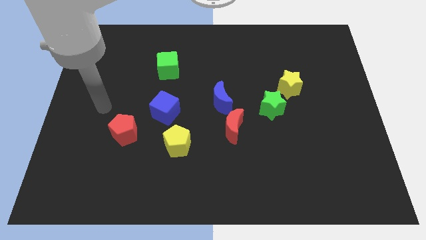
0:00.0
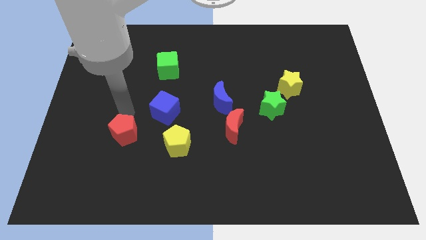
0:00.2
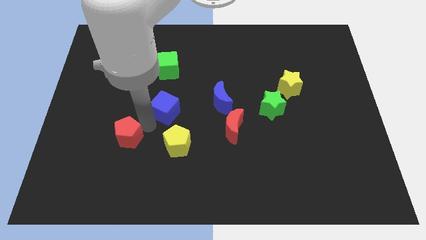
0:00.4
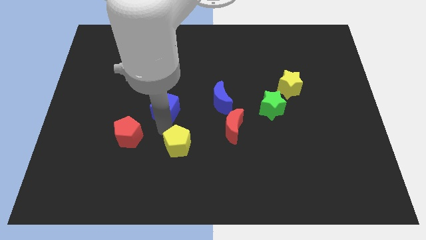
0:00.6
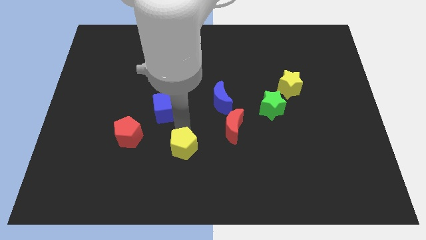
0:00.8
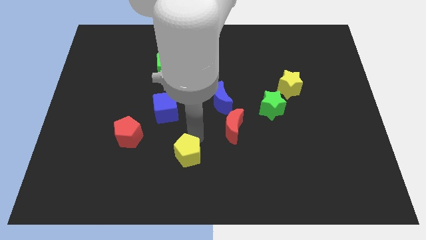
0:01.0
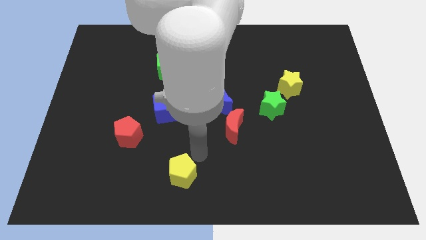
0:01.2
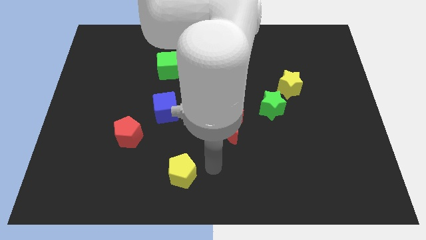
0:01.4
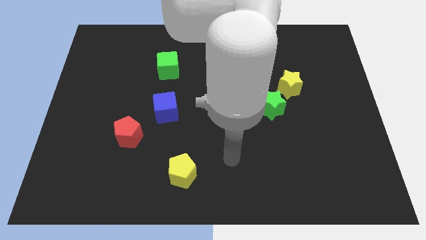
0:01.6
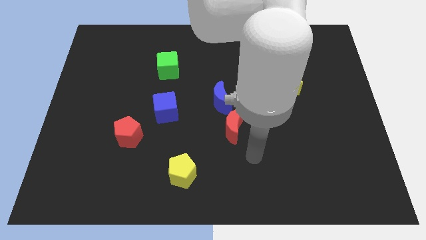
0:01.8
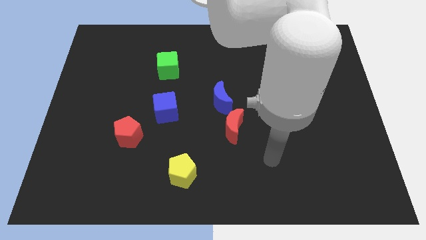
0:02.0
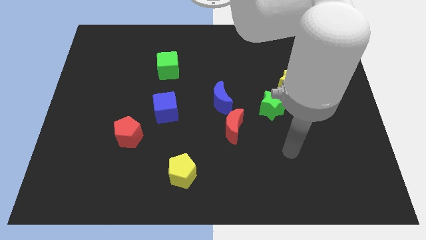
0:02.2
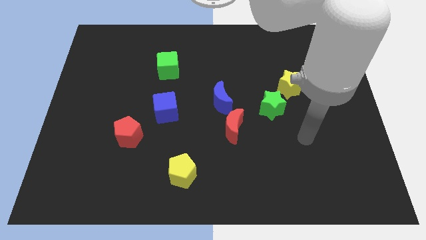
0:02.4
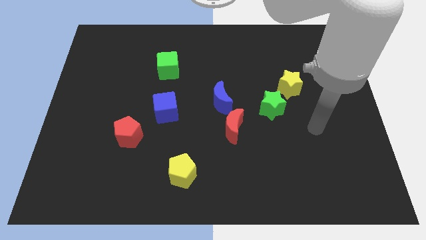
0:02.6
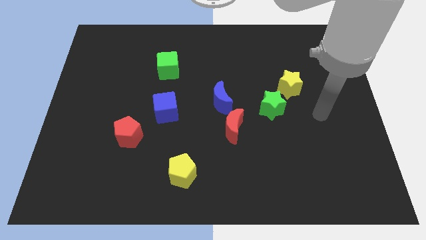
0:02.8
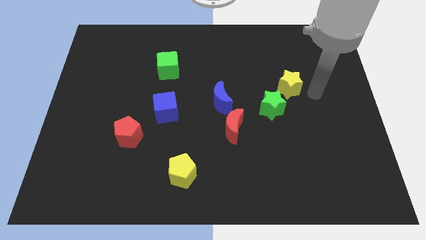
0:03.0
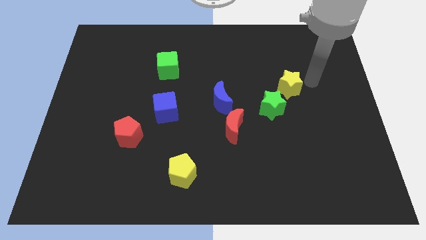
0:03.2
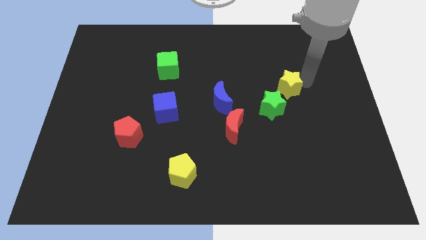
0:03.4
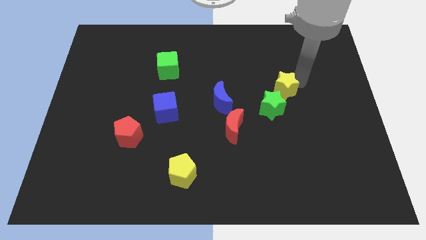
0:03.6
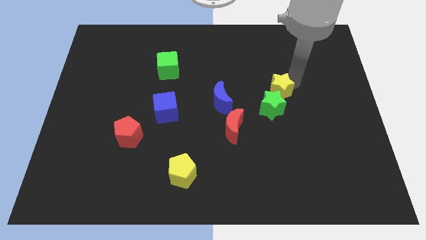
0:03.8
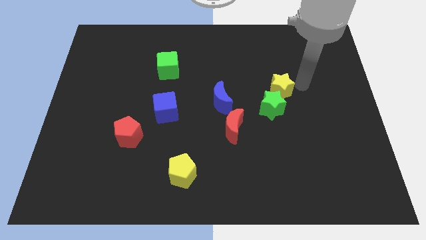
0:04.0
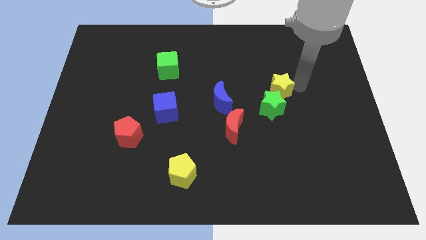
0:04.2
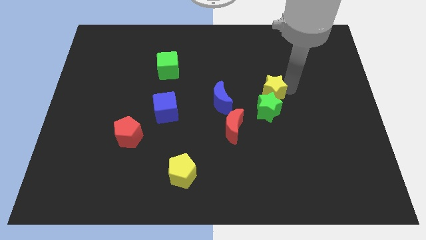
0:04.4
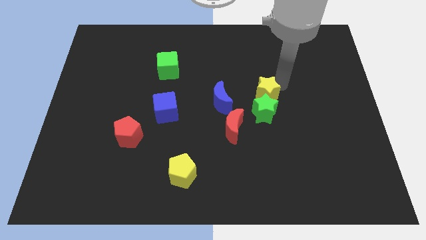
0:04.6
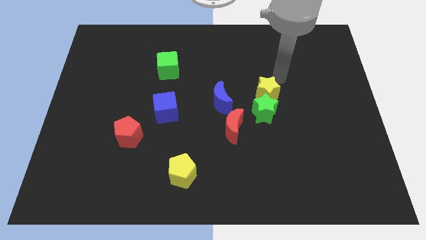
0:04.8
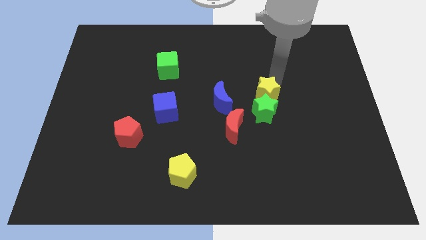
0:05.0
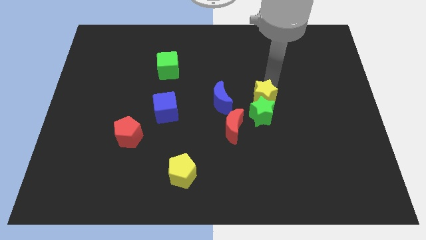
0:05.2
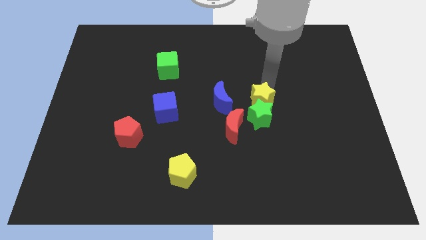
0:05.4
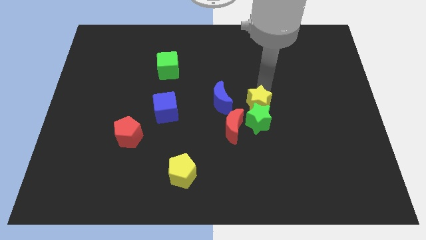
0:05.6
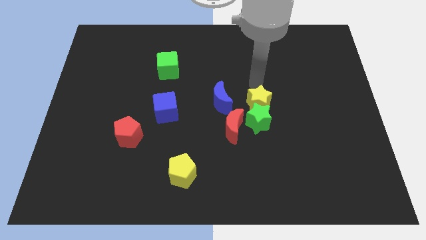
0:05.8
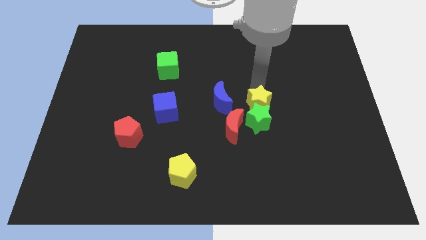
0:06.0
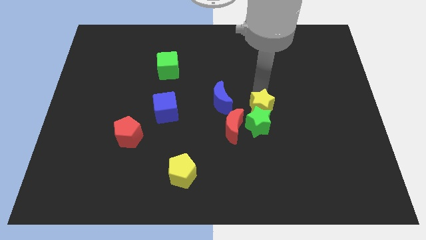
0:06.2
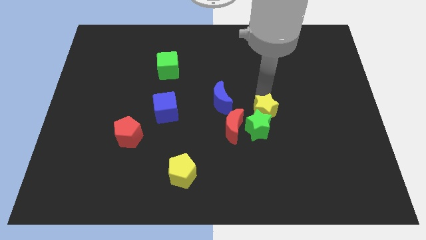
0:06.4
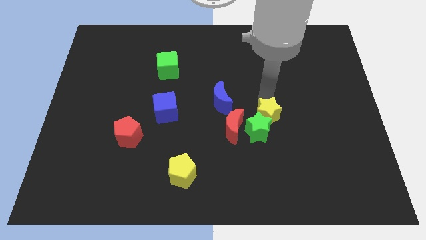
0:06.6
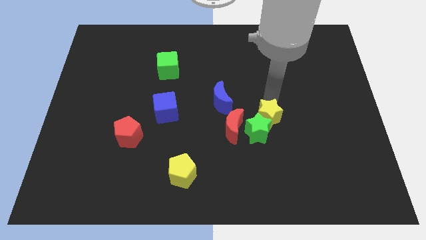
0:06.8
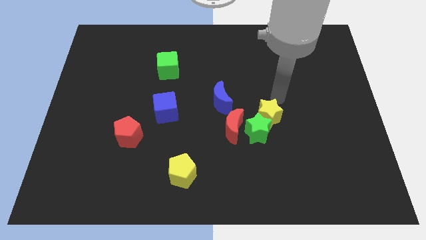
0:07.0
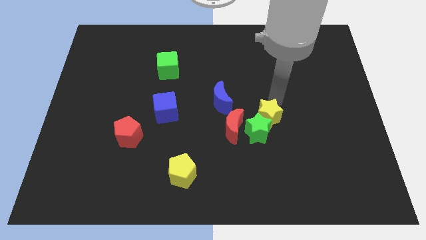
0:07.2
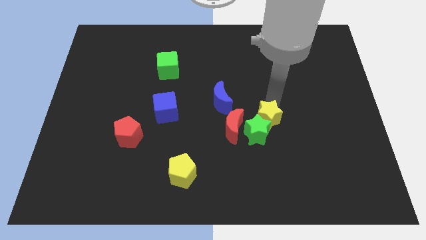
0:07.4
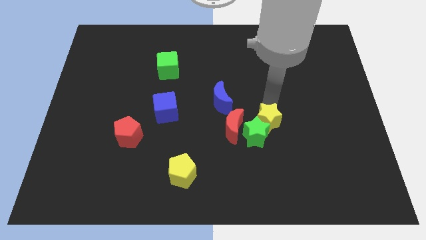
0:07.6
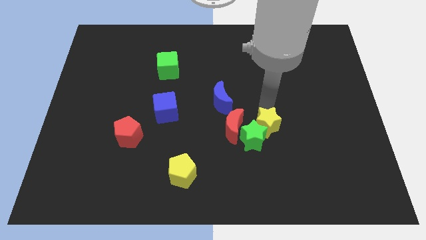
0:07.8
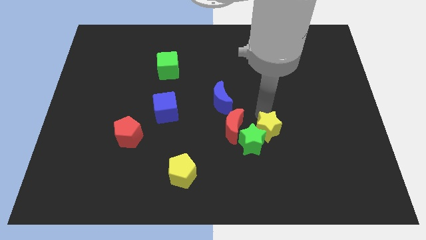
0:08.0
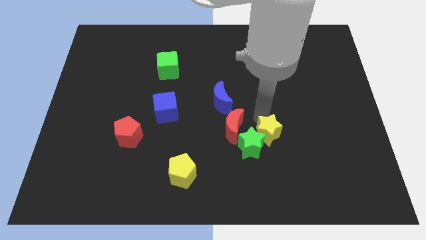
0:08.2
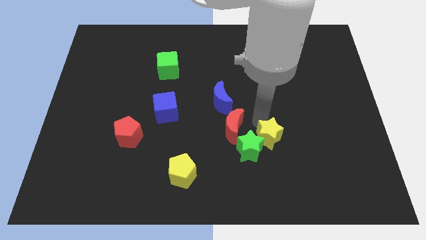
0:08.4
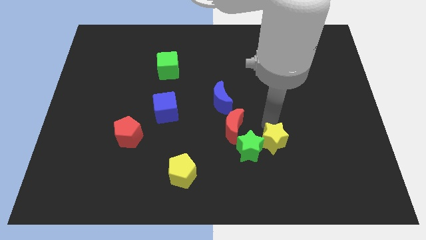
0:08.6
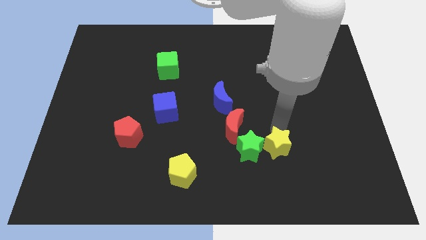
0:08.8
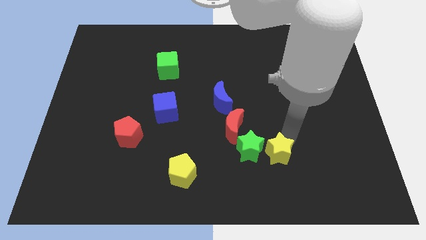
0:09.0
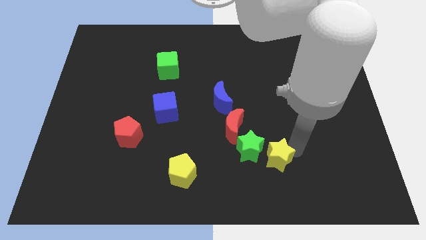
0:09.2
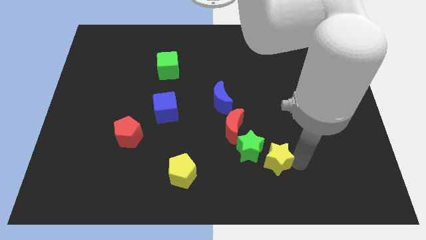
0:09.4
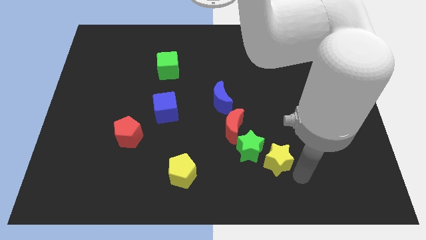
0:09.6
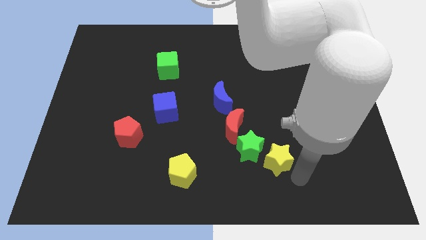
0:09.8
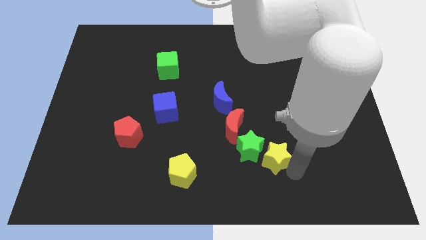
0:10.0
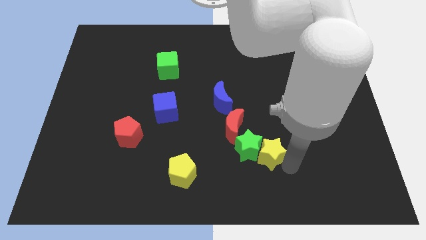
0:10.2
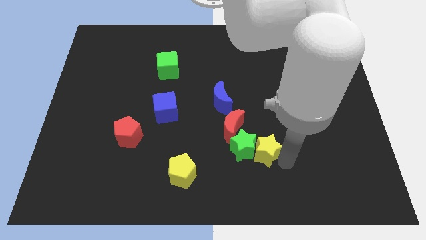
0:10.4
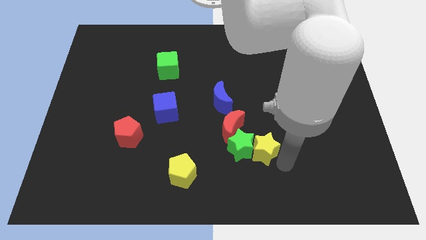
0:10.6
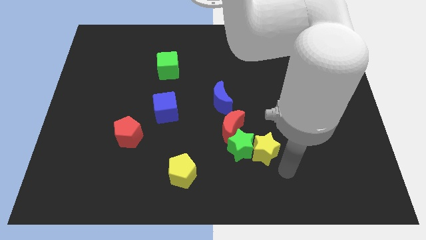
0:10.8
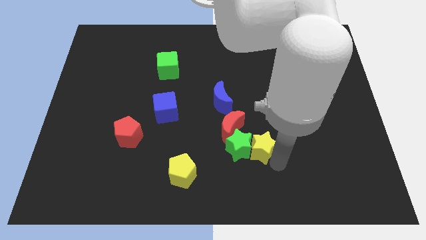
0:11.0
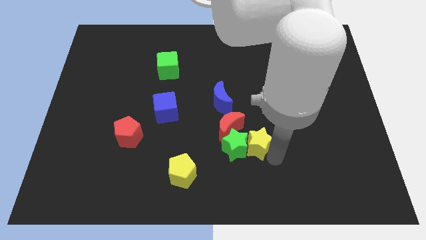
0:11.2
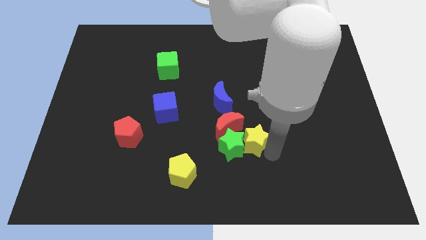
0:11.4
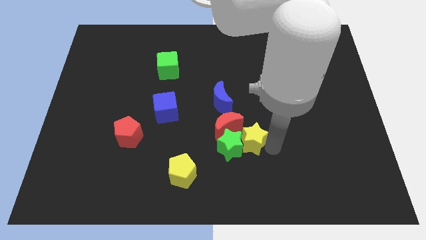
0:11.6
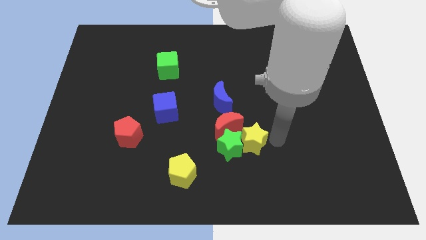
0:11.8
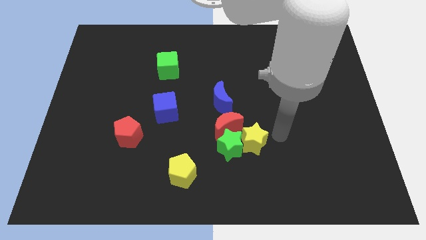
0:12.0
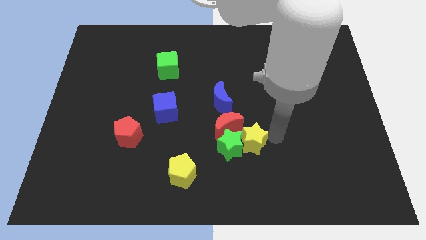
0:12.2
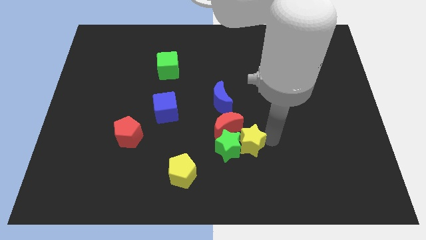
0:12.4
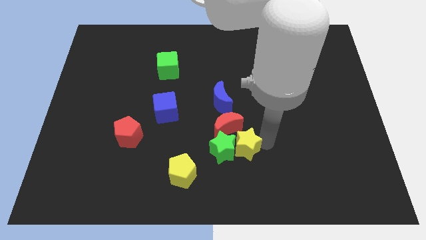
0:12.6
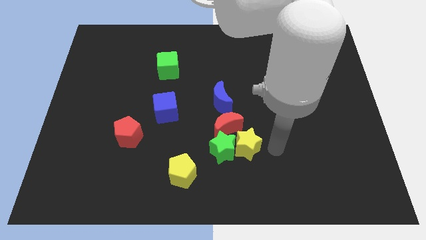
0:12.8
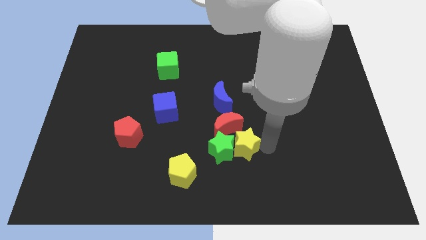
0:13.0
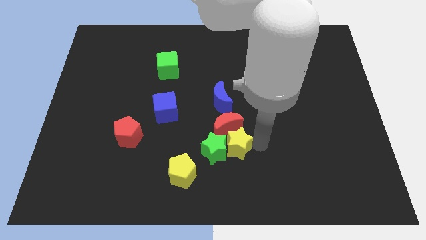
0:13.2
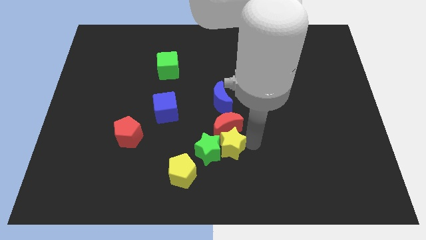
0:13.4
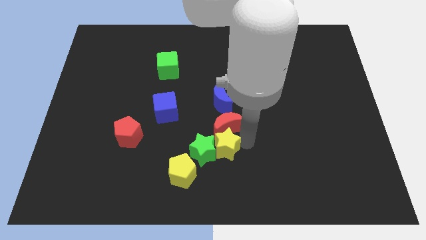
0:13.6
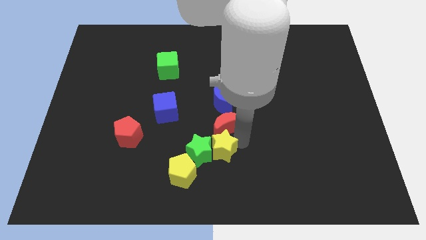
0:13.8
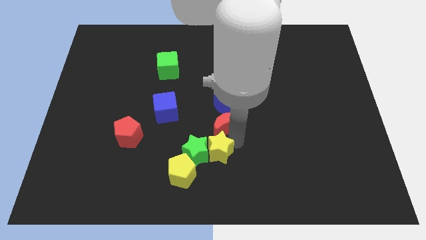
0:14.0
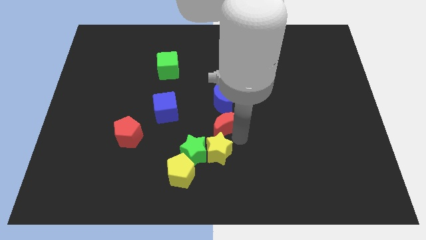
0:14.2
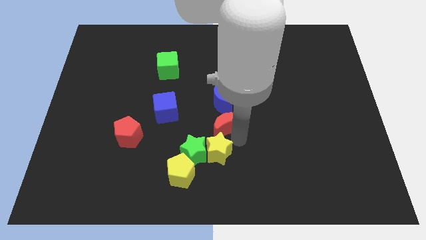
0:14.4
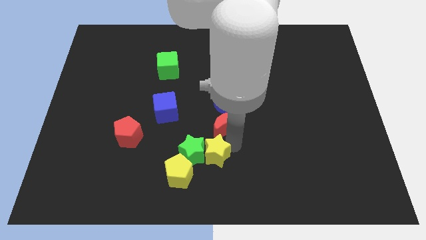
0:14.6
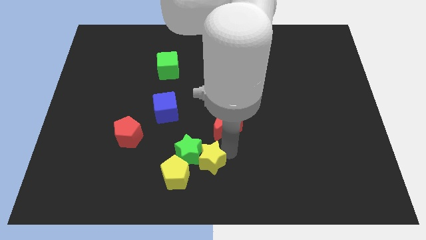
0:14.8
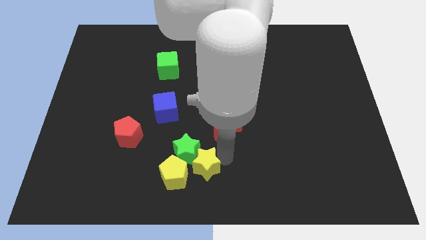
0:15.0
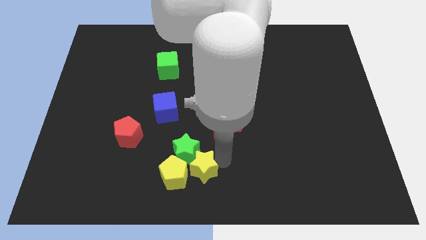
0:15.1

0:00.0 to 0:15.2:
push the yellow star to the yellow pentagon
